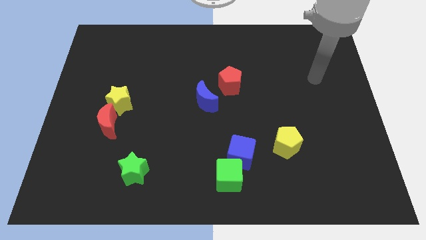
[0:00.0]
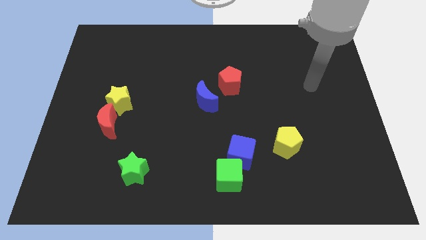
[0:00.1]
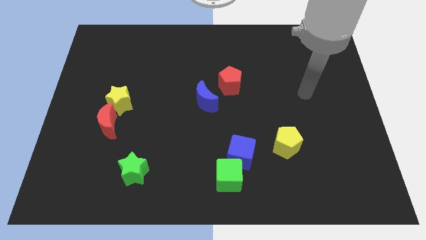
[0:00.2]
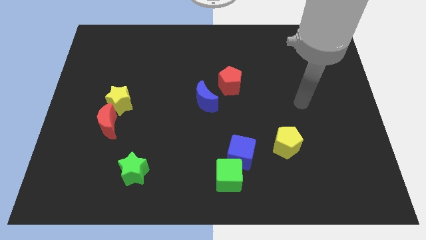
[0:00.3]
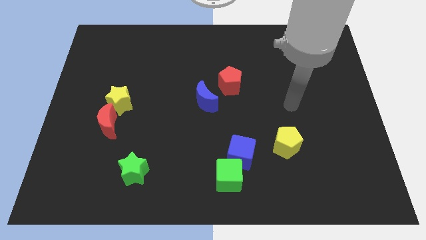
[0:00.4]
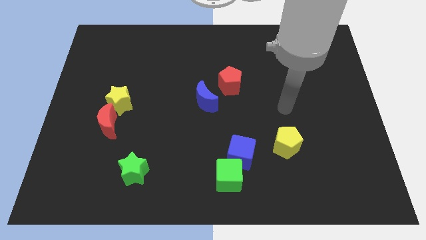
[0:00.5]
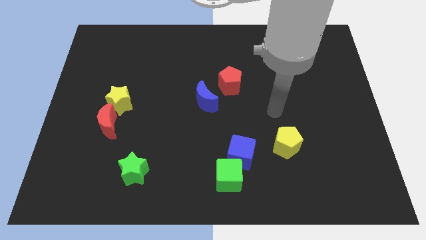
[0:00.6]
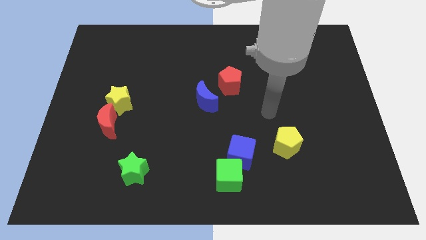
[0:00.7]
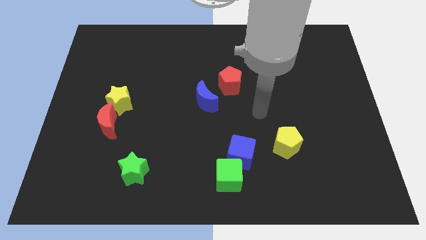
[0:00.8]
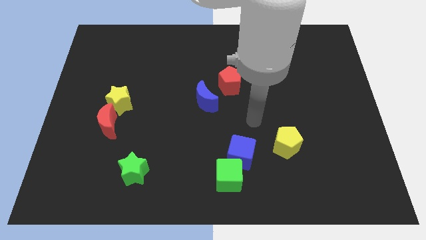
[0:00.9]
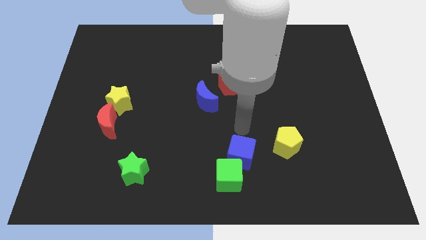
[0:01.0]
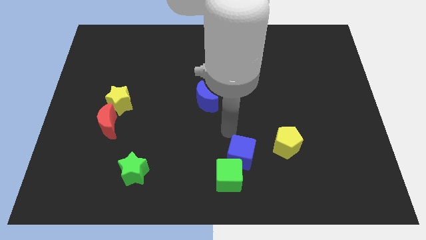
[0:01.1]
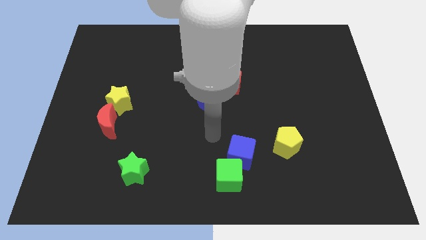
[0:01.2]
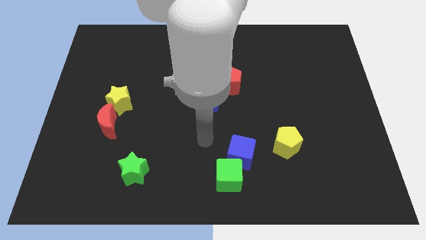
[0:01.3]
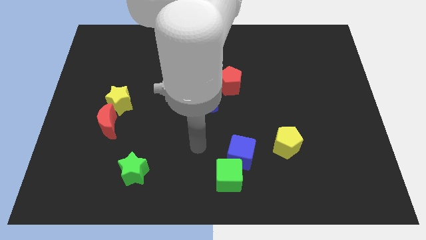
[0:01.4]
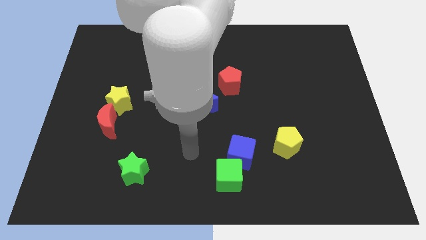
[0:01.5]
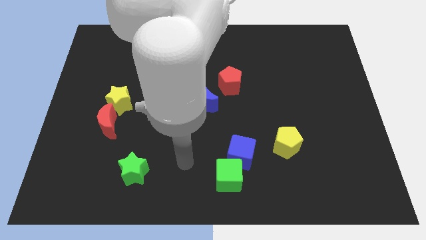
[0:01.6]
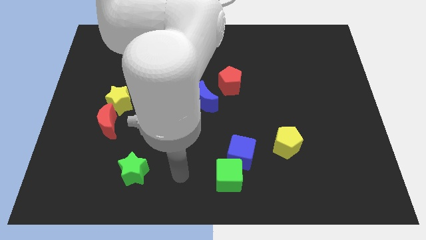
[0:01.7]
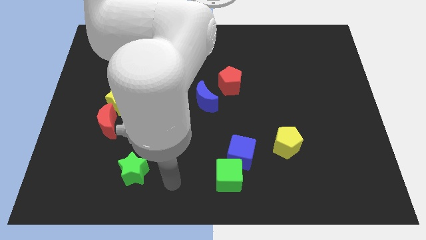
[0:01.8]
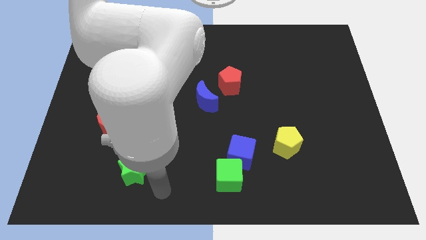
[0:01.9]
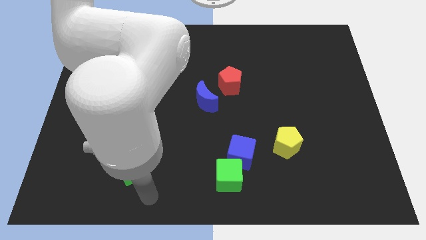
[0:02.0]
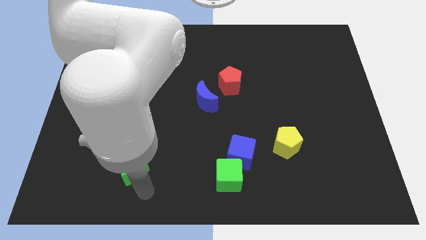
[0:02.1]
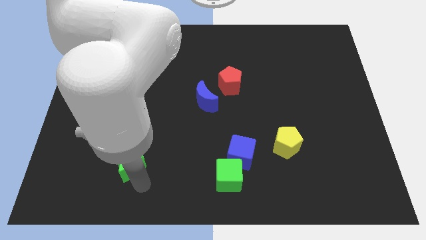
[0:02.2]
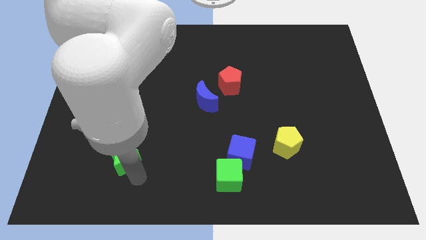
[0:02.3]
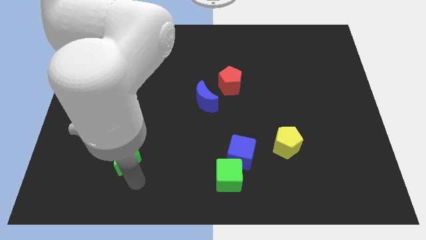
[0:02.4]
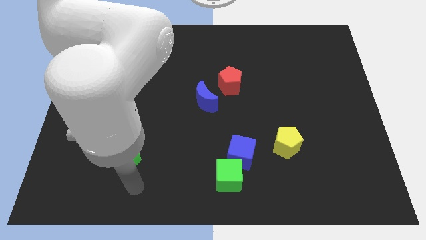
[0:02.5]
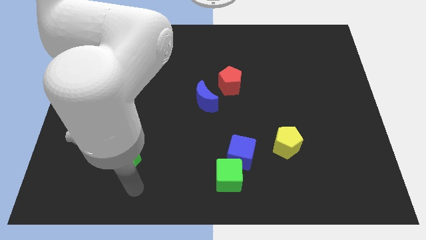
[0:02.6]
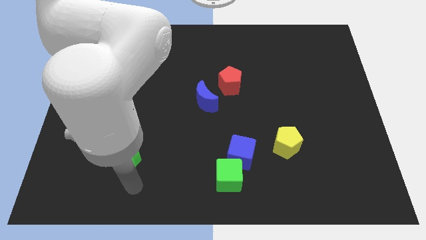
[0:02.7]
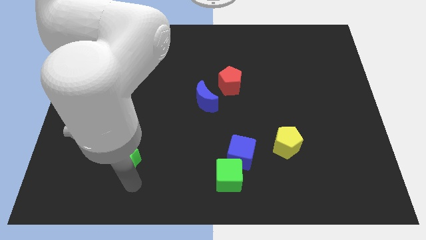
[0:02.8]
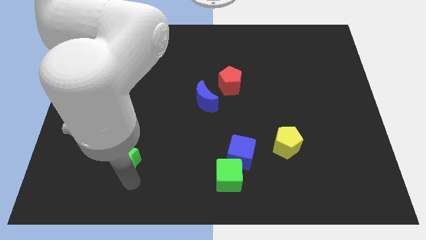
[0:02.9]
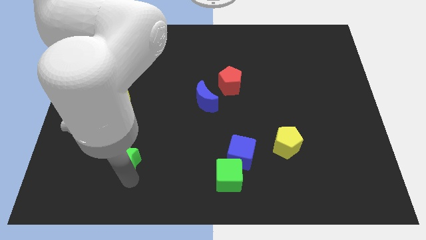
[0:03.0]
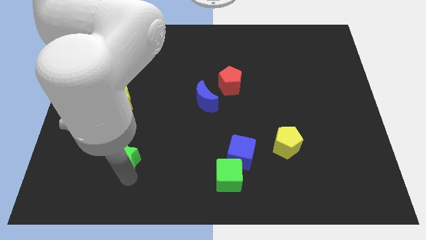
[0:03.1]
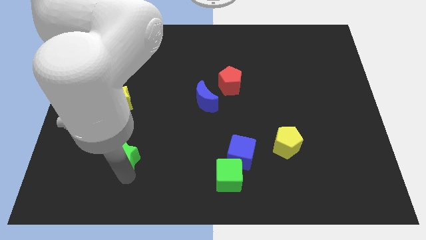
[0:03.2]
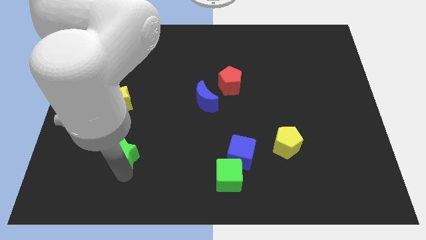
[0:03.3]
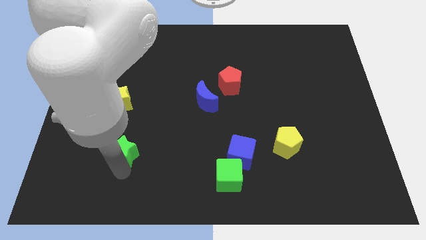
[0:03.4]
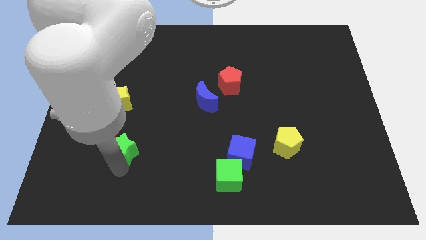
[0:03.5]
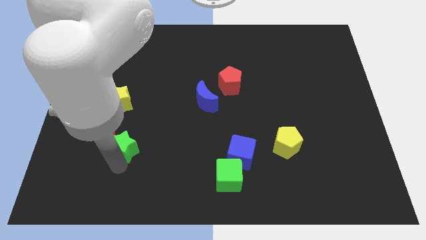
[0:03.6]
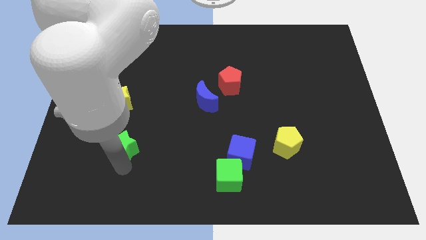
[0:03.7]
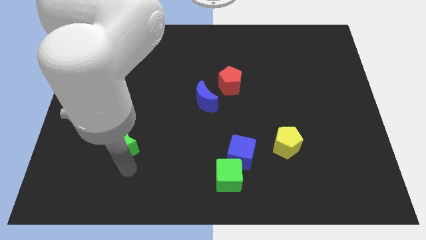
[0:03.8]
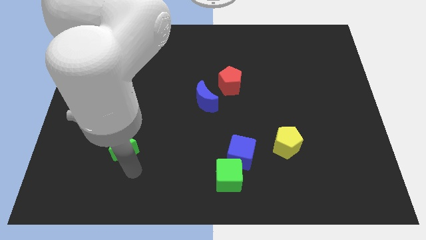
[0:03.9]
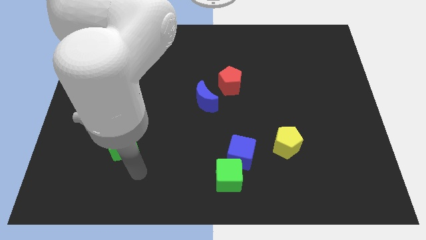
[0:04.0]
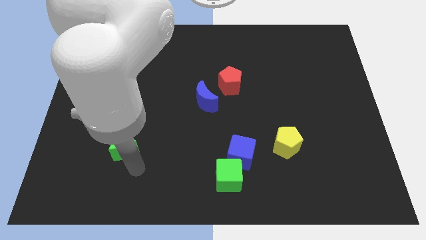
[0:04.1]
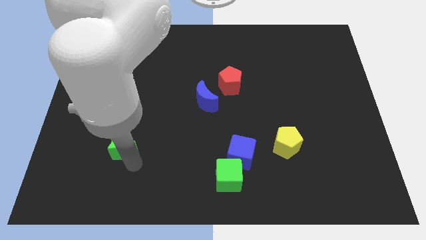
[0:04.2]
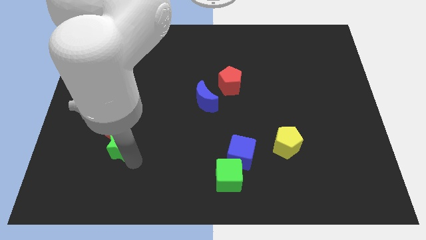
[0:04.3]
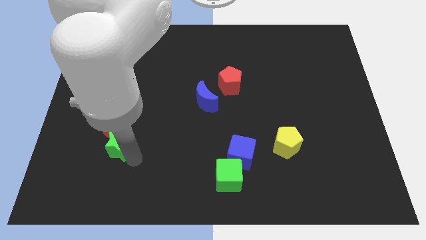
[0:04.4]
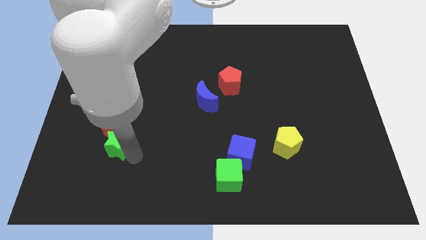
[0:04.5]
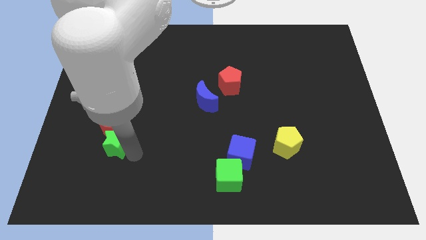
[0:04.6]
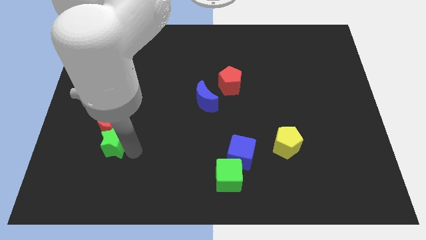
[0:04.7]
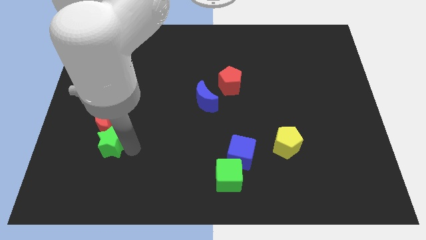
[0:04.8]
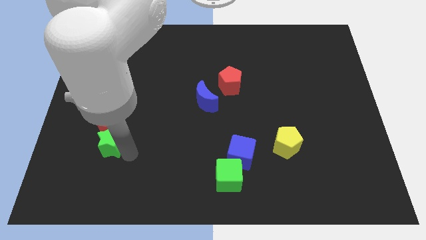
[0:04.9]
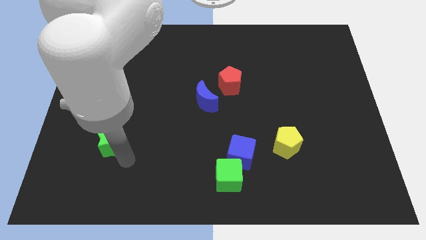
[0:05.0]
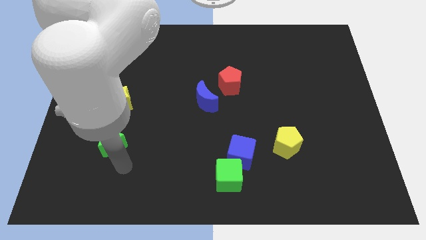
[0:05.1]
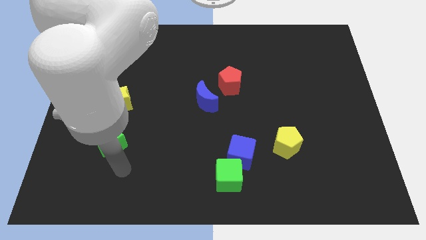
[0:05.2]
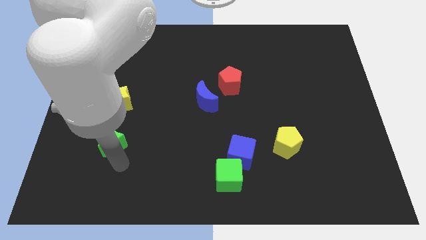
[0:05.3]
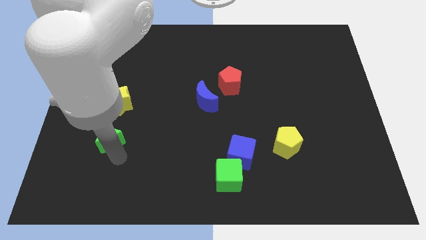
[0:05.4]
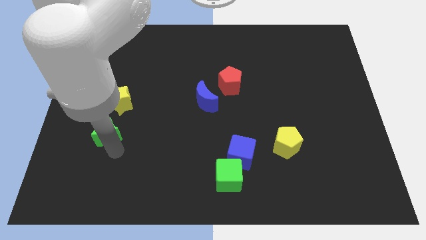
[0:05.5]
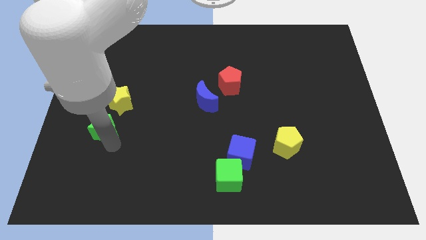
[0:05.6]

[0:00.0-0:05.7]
push the green star to the red moon

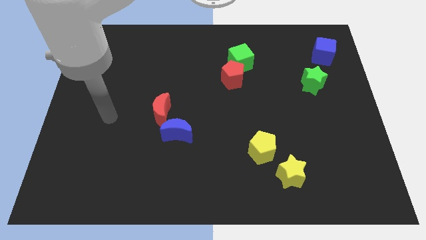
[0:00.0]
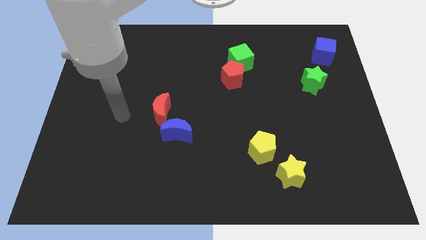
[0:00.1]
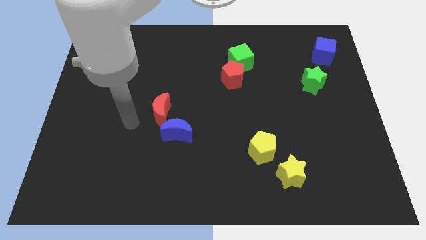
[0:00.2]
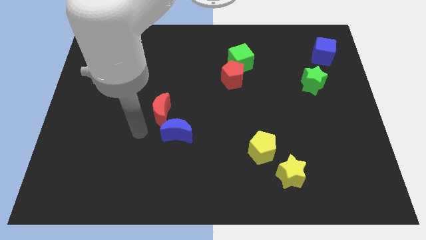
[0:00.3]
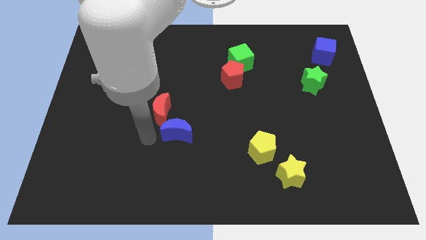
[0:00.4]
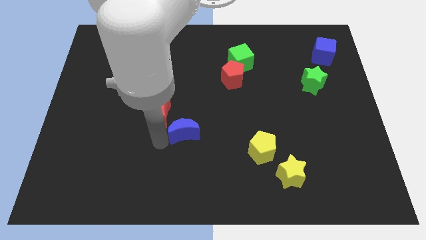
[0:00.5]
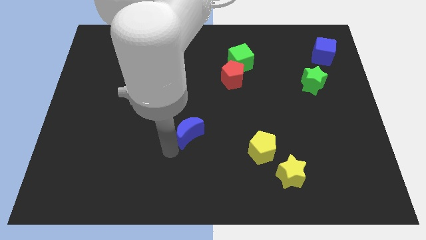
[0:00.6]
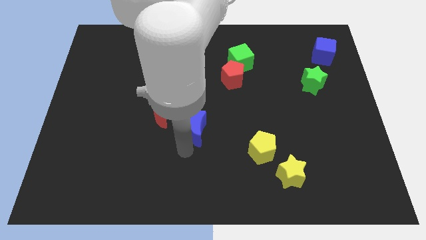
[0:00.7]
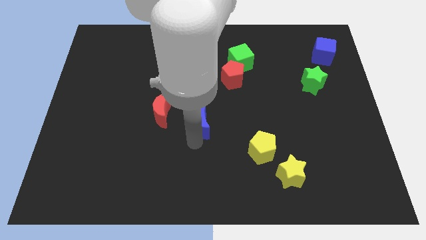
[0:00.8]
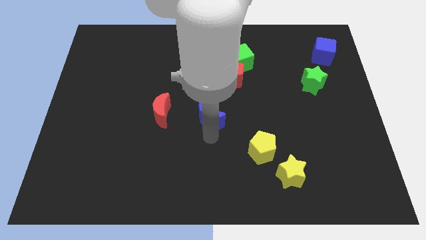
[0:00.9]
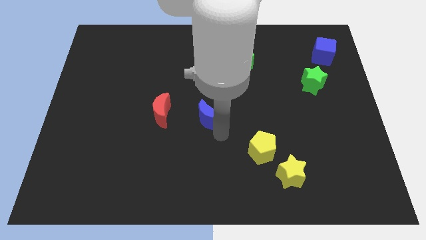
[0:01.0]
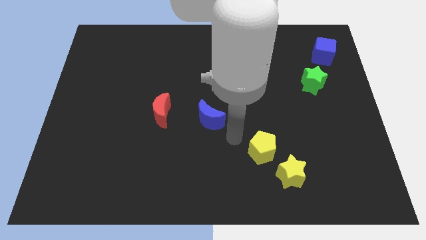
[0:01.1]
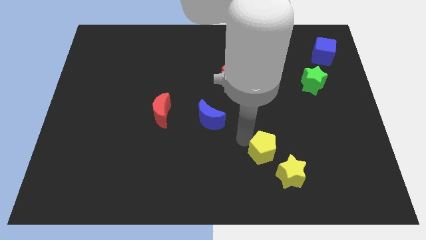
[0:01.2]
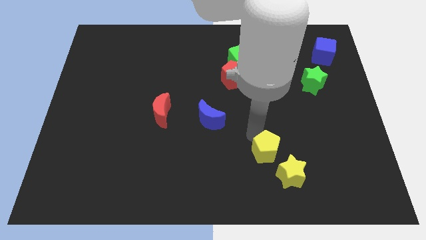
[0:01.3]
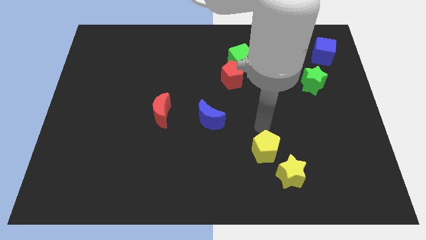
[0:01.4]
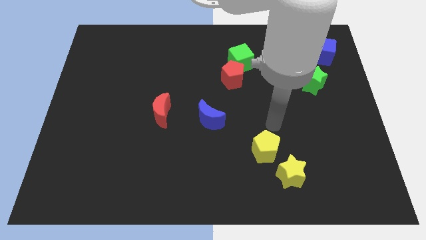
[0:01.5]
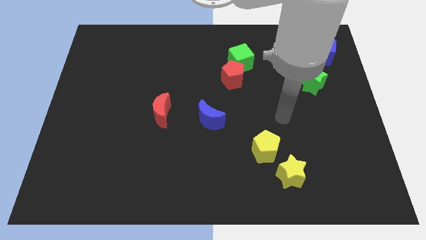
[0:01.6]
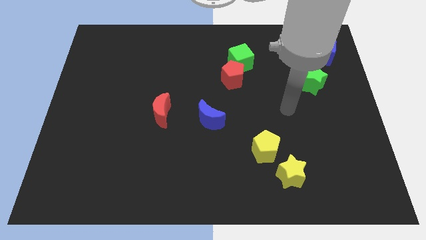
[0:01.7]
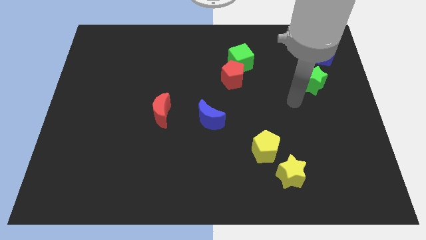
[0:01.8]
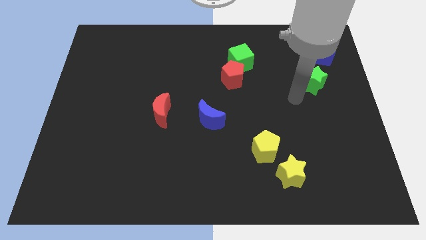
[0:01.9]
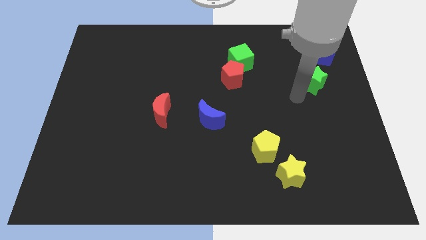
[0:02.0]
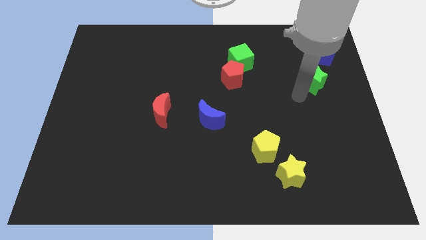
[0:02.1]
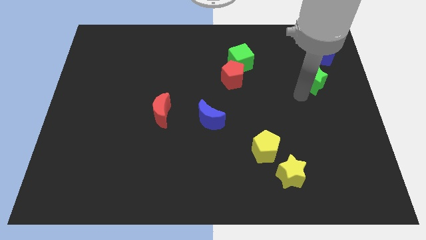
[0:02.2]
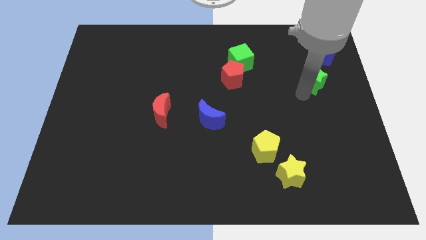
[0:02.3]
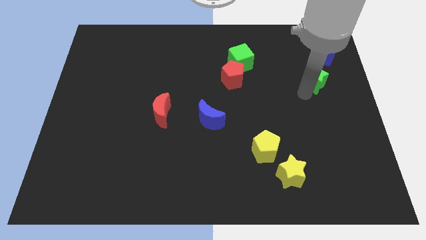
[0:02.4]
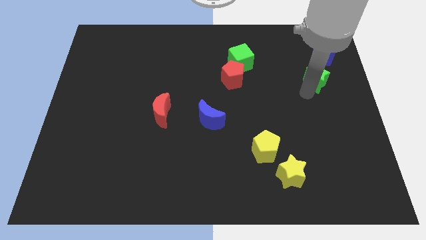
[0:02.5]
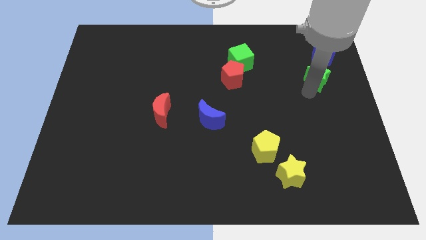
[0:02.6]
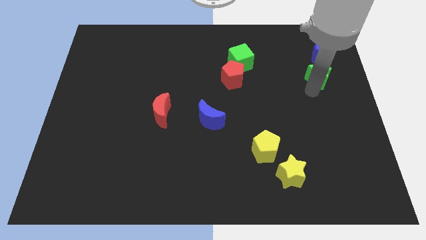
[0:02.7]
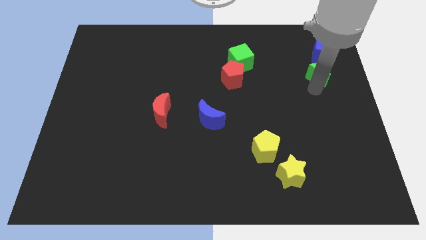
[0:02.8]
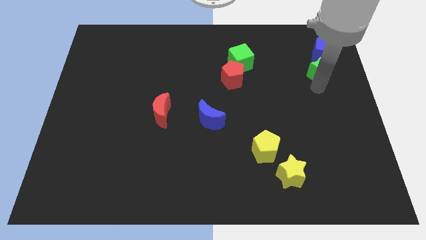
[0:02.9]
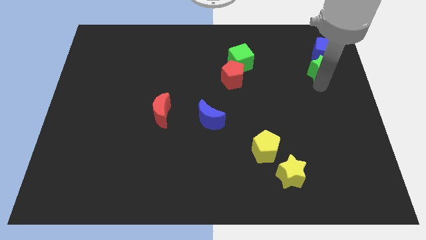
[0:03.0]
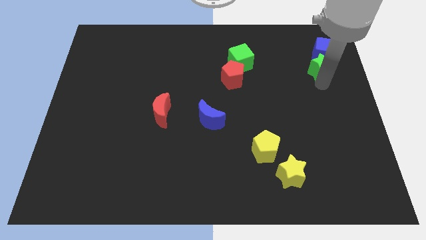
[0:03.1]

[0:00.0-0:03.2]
slide the green star to the blue cube
